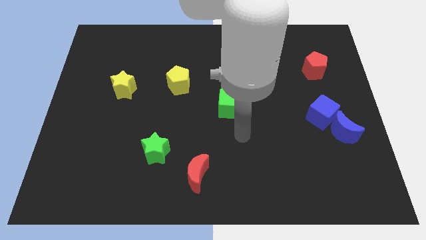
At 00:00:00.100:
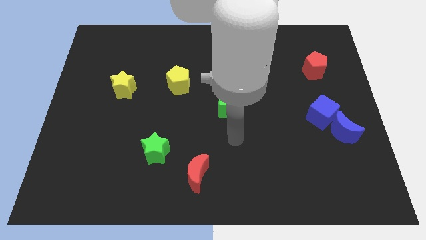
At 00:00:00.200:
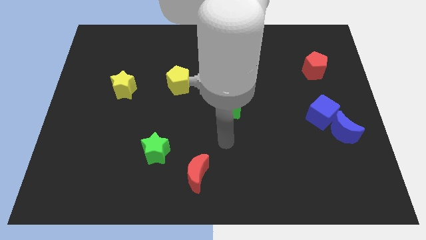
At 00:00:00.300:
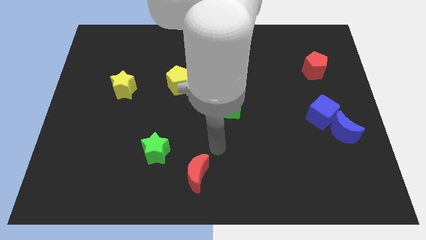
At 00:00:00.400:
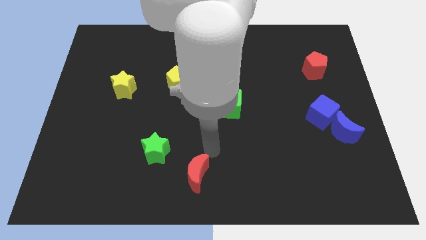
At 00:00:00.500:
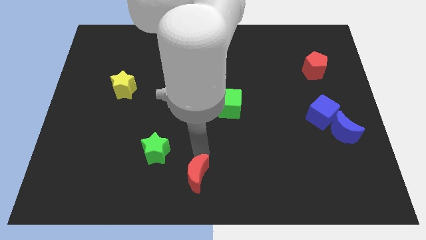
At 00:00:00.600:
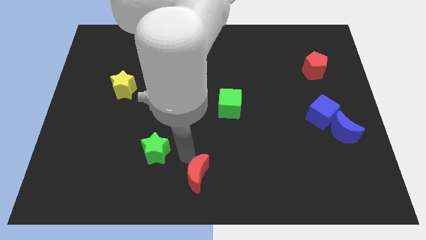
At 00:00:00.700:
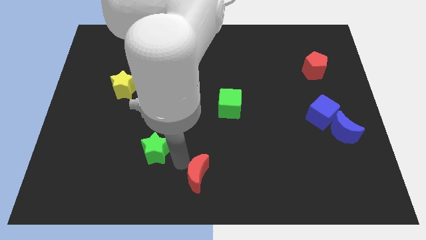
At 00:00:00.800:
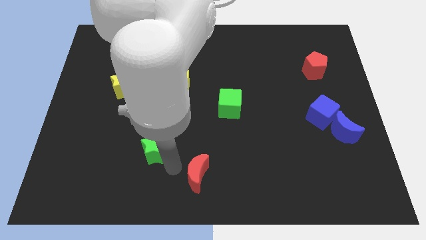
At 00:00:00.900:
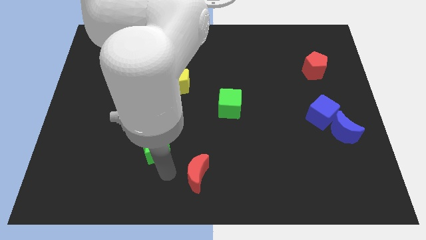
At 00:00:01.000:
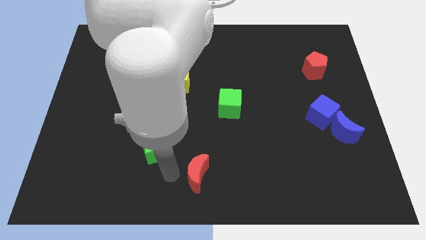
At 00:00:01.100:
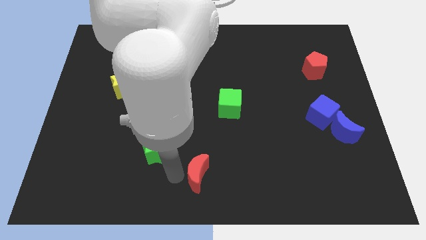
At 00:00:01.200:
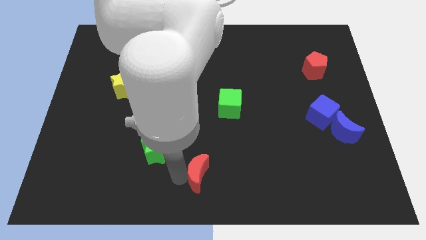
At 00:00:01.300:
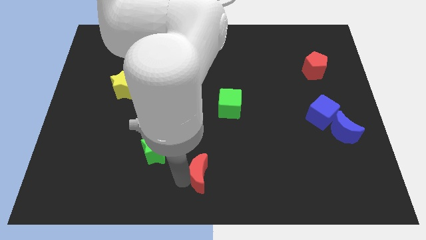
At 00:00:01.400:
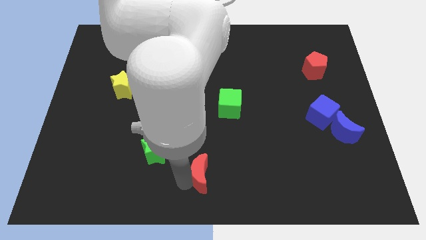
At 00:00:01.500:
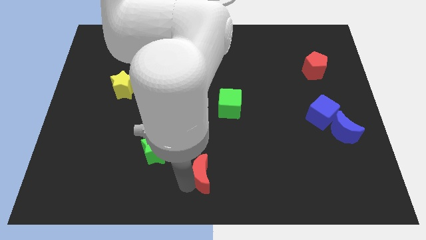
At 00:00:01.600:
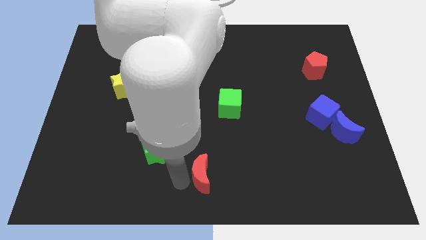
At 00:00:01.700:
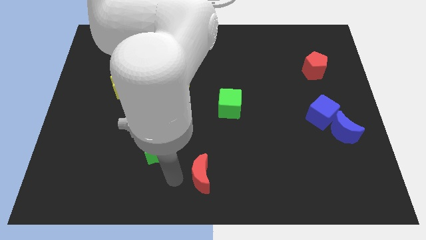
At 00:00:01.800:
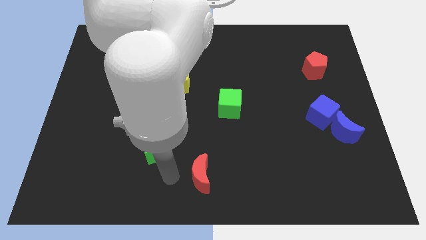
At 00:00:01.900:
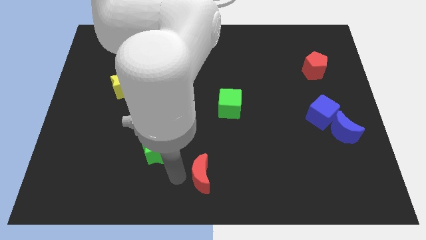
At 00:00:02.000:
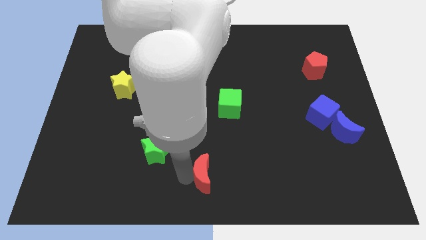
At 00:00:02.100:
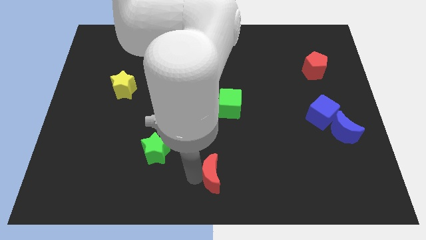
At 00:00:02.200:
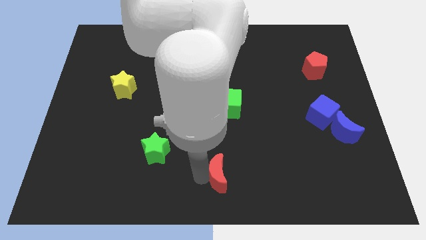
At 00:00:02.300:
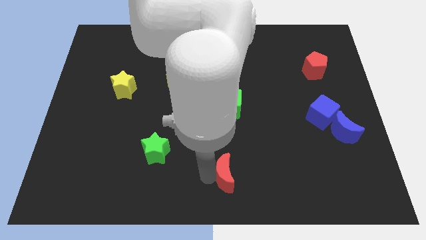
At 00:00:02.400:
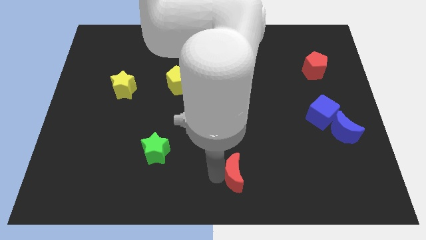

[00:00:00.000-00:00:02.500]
slightly slide the red moon right

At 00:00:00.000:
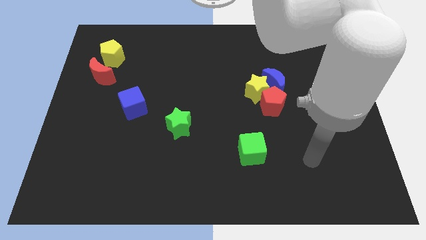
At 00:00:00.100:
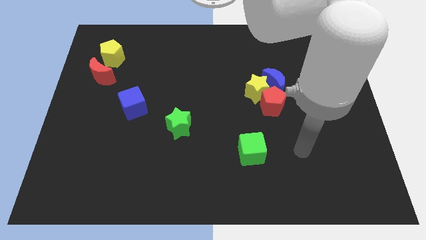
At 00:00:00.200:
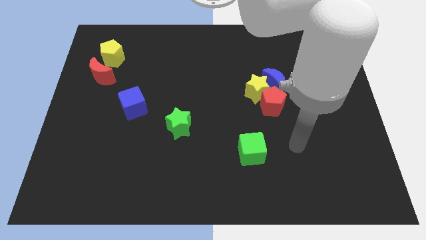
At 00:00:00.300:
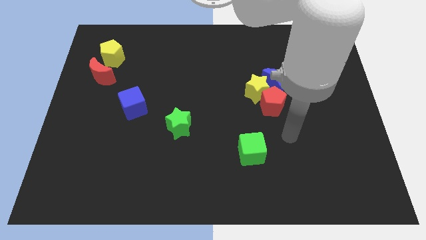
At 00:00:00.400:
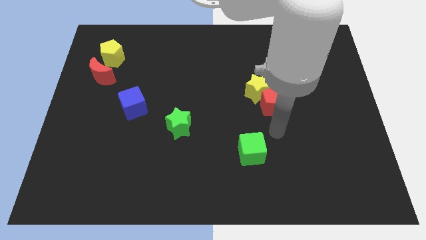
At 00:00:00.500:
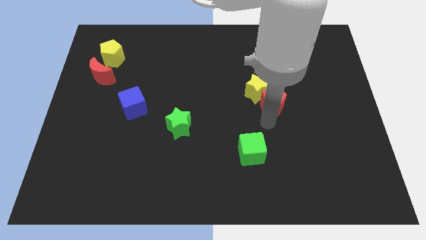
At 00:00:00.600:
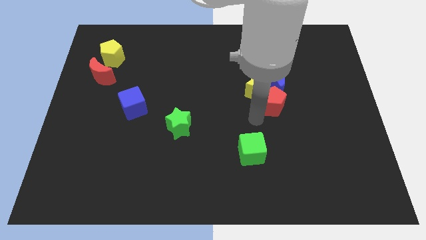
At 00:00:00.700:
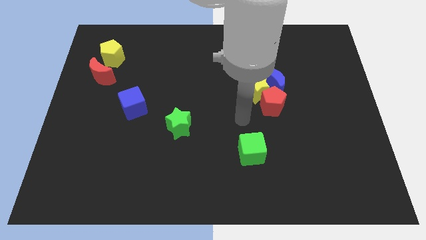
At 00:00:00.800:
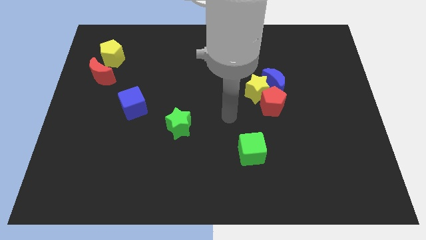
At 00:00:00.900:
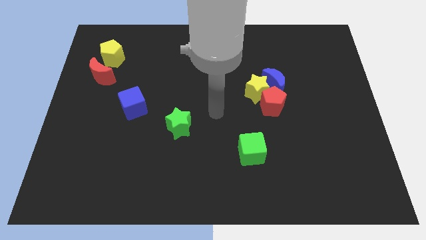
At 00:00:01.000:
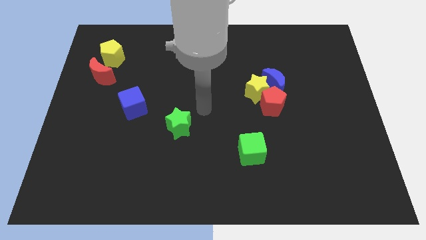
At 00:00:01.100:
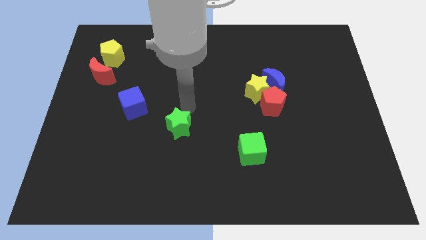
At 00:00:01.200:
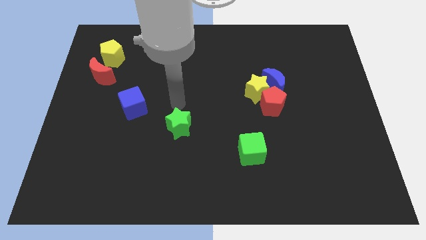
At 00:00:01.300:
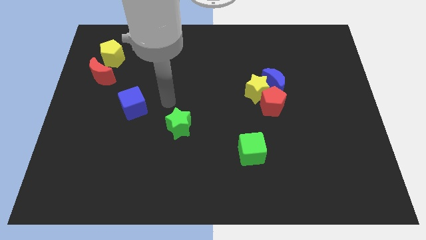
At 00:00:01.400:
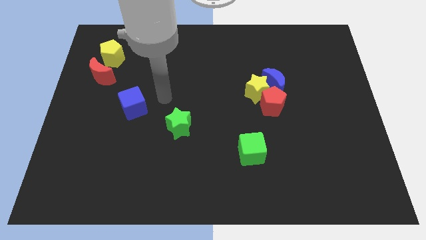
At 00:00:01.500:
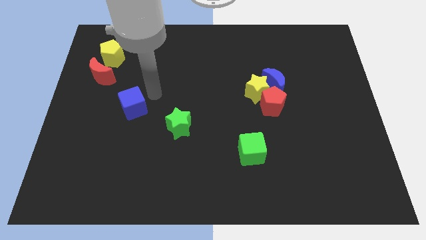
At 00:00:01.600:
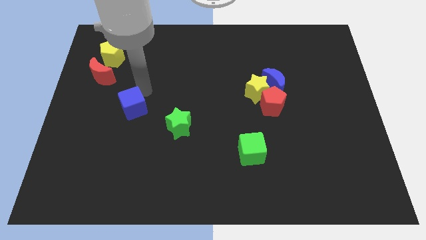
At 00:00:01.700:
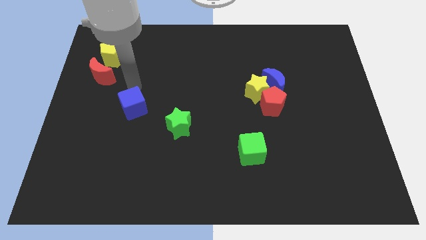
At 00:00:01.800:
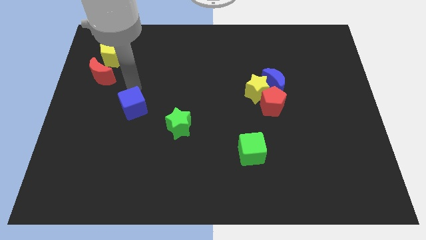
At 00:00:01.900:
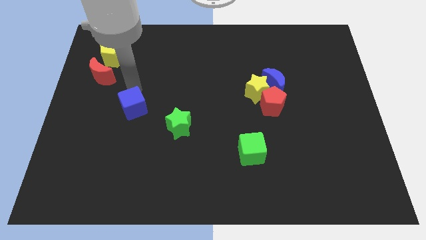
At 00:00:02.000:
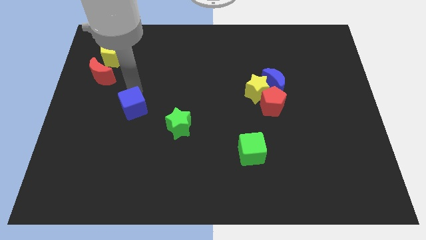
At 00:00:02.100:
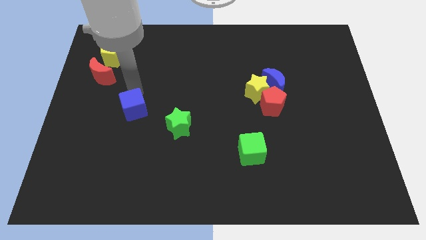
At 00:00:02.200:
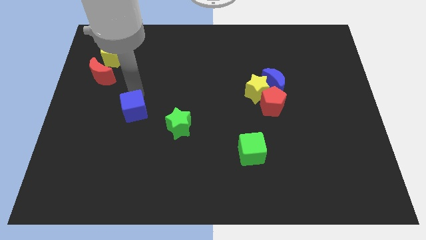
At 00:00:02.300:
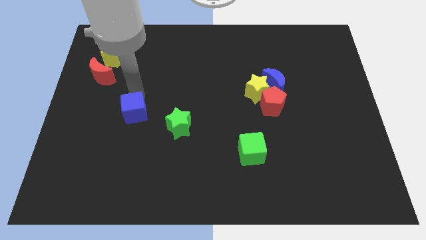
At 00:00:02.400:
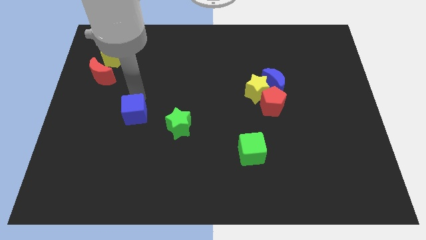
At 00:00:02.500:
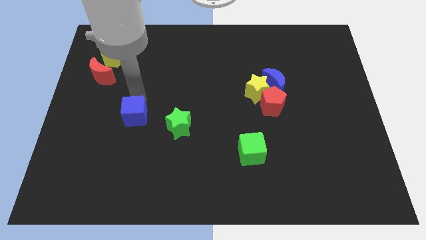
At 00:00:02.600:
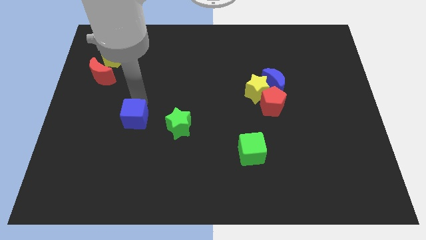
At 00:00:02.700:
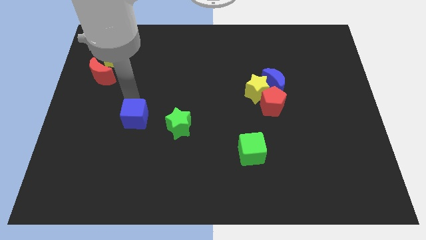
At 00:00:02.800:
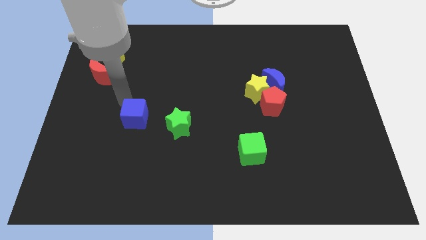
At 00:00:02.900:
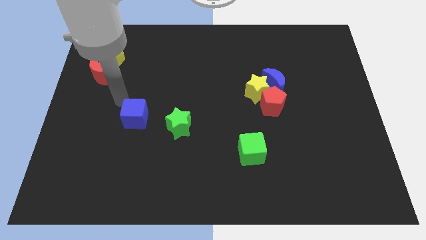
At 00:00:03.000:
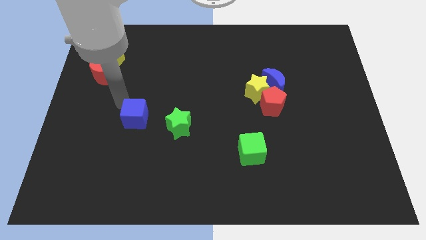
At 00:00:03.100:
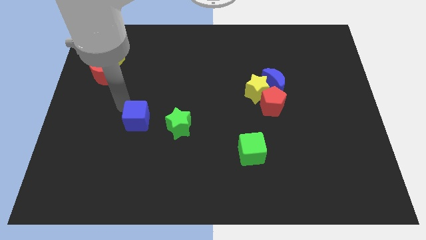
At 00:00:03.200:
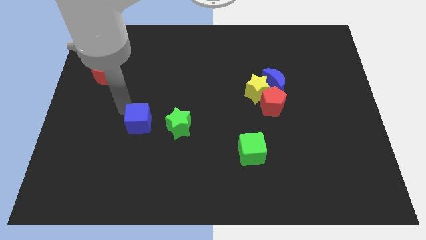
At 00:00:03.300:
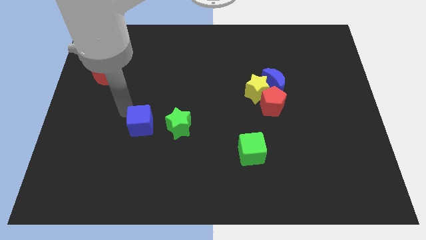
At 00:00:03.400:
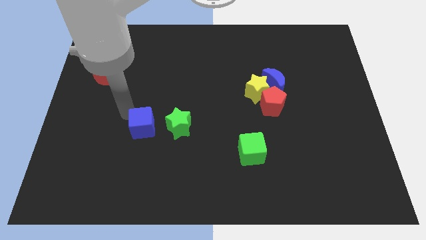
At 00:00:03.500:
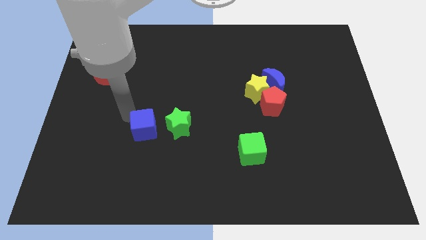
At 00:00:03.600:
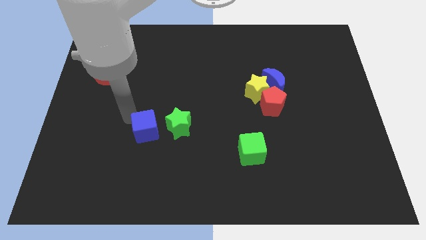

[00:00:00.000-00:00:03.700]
push the blue cube a little downwards and then right

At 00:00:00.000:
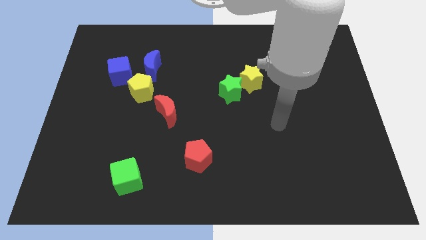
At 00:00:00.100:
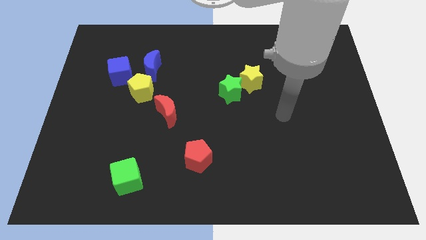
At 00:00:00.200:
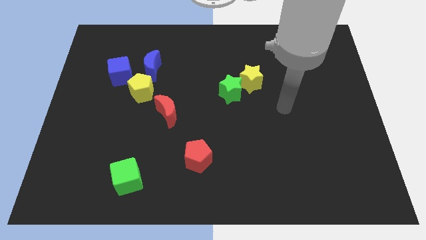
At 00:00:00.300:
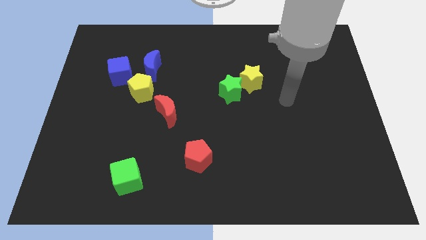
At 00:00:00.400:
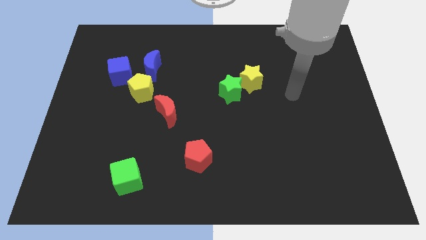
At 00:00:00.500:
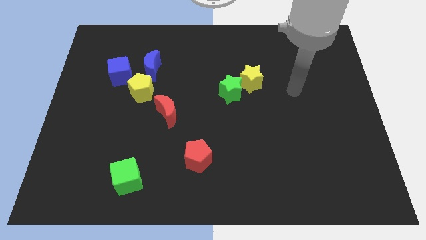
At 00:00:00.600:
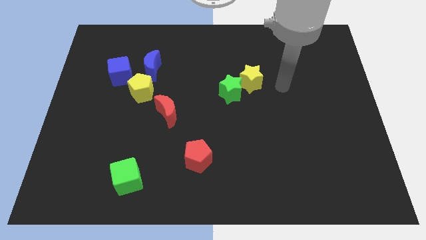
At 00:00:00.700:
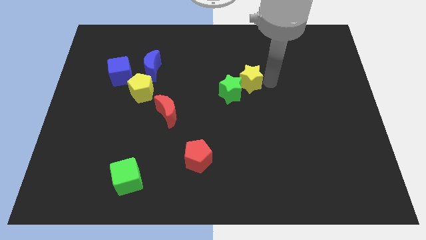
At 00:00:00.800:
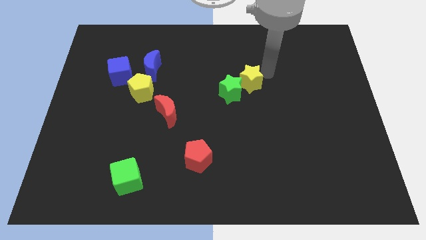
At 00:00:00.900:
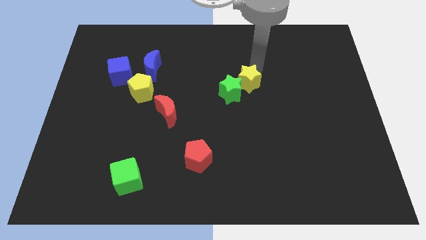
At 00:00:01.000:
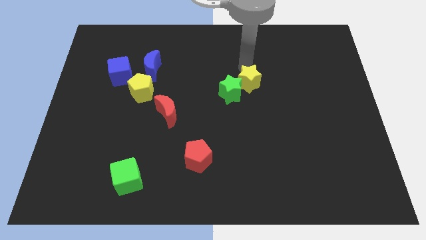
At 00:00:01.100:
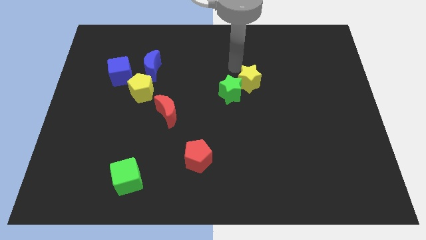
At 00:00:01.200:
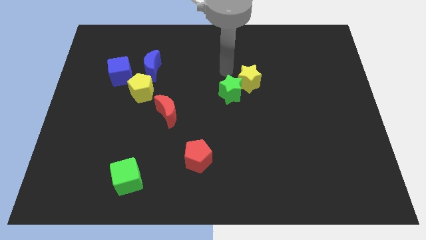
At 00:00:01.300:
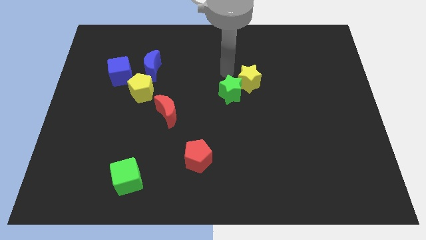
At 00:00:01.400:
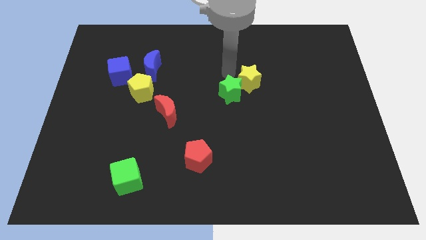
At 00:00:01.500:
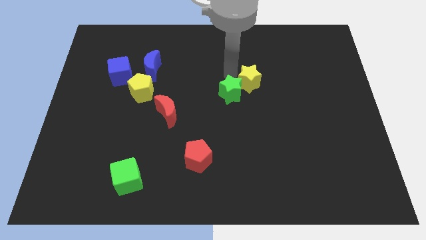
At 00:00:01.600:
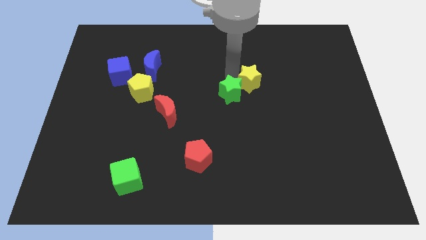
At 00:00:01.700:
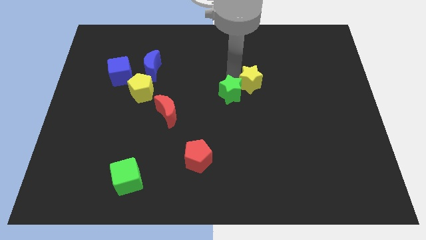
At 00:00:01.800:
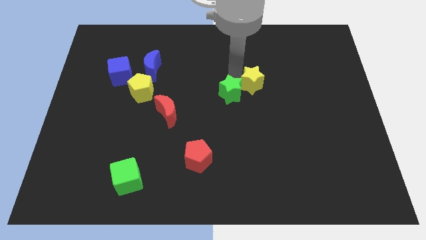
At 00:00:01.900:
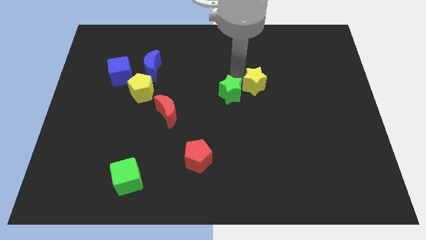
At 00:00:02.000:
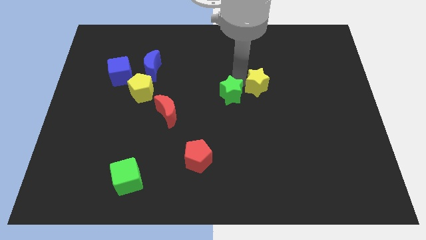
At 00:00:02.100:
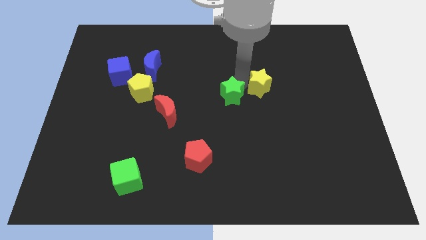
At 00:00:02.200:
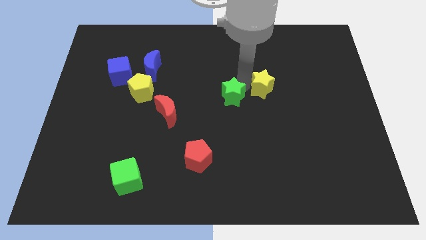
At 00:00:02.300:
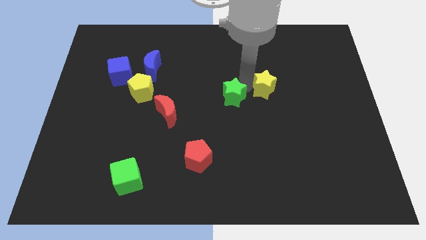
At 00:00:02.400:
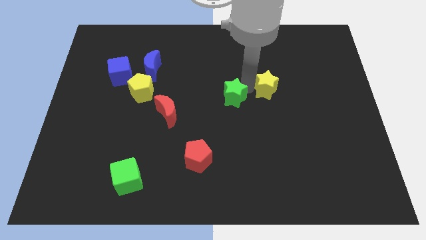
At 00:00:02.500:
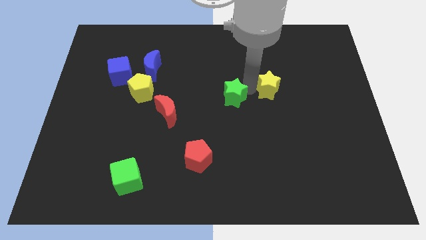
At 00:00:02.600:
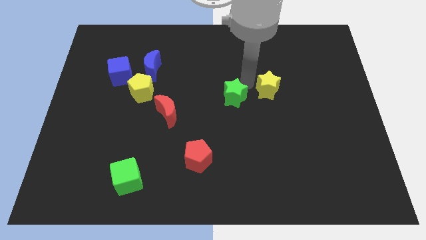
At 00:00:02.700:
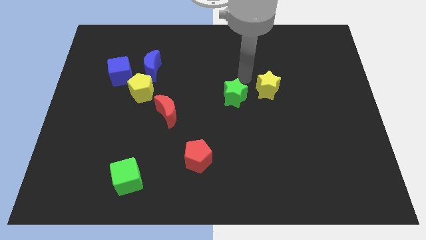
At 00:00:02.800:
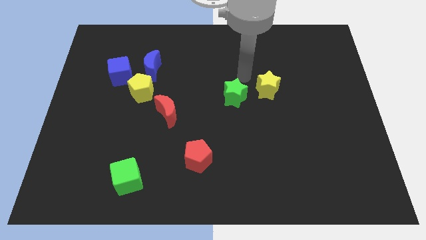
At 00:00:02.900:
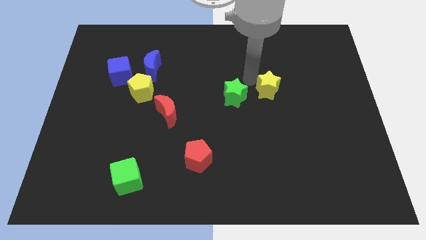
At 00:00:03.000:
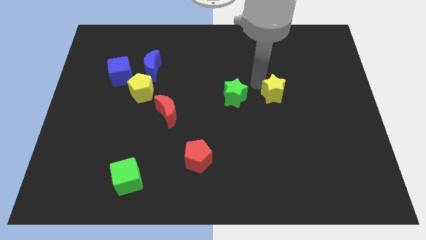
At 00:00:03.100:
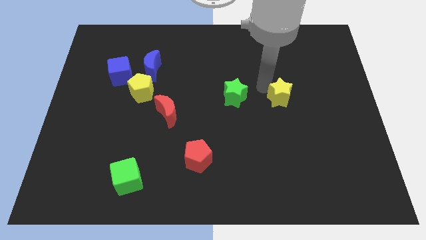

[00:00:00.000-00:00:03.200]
move the yellow star downwards and then right slightly
